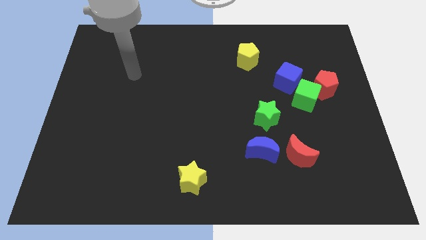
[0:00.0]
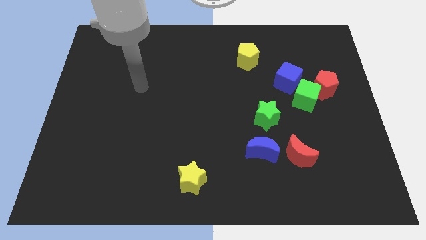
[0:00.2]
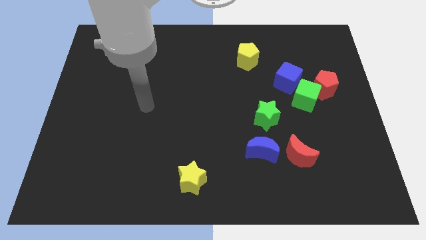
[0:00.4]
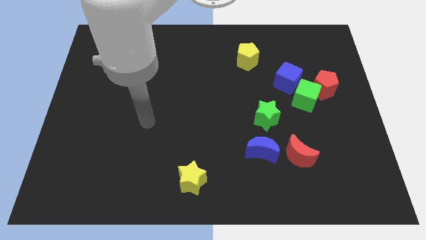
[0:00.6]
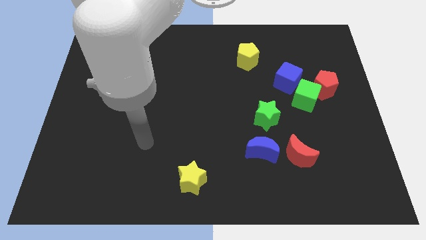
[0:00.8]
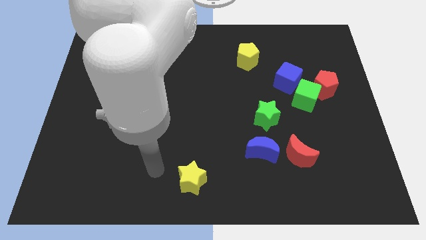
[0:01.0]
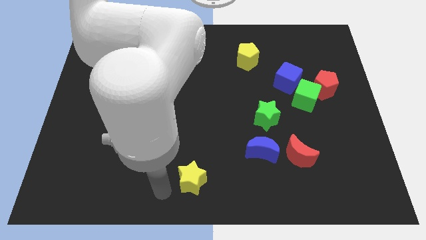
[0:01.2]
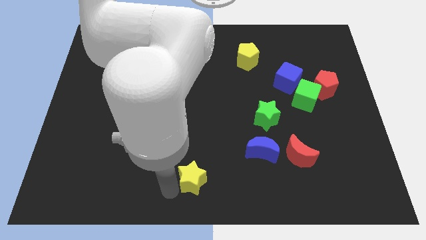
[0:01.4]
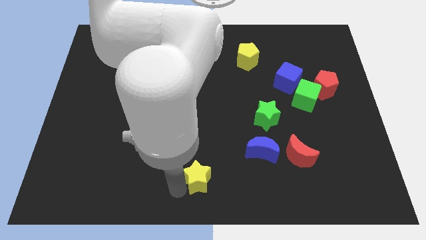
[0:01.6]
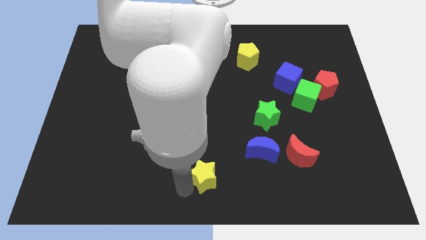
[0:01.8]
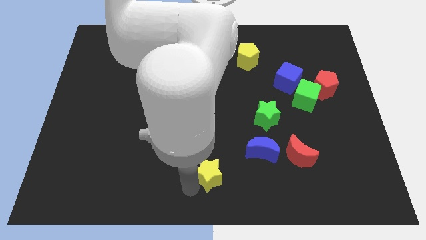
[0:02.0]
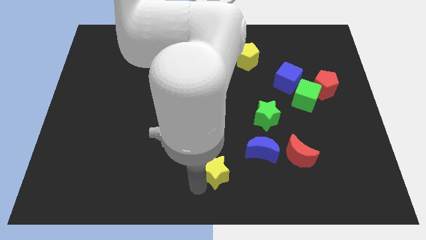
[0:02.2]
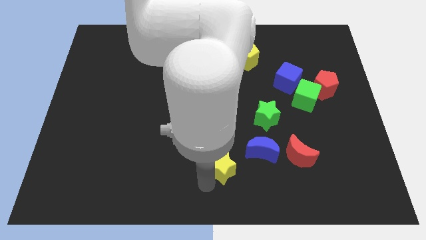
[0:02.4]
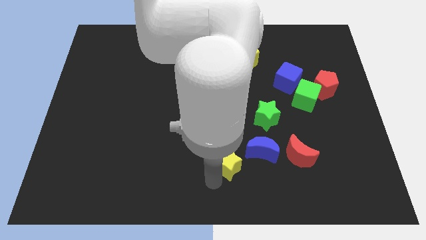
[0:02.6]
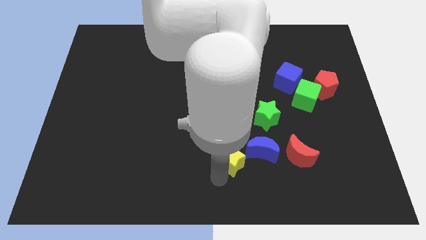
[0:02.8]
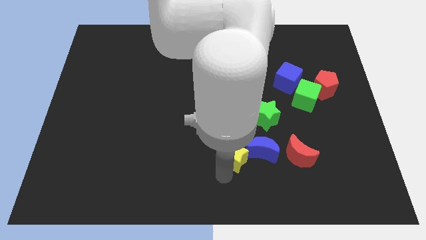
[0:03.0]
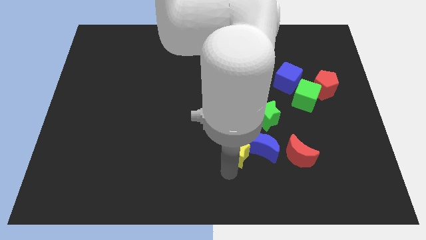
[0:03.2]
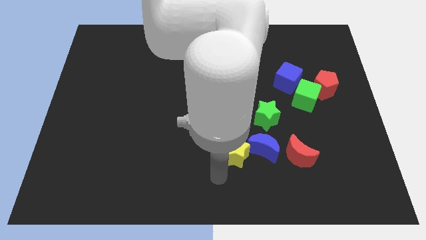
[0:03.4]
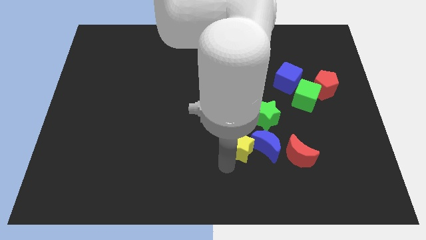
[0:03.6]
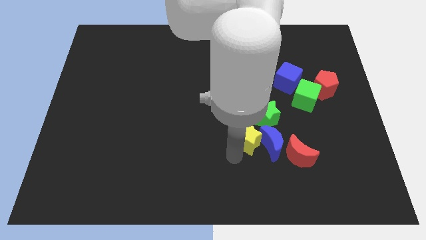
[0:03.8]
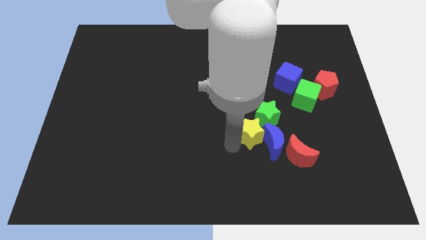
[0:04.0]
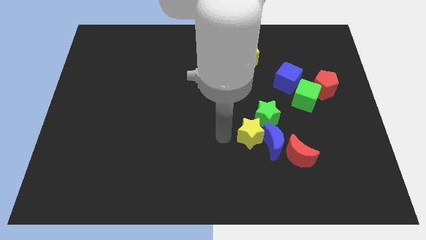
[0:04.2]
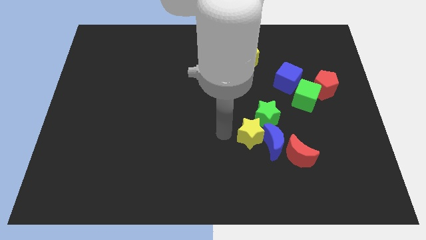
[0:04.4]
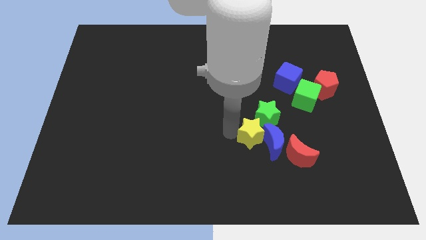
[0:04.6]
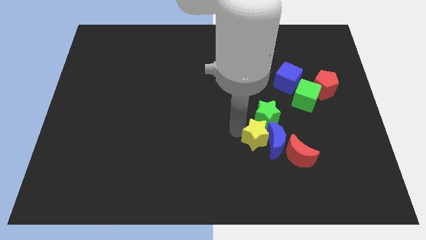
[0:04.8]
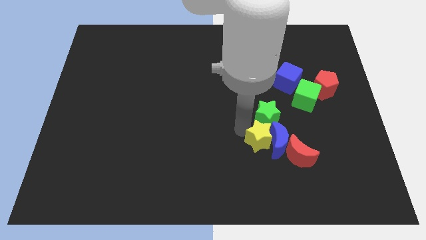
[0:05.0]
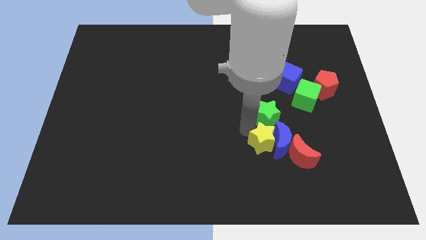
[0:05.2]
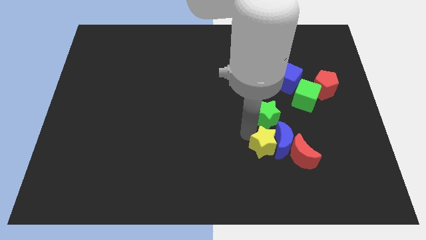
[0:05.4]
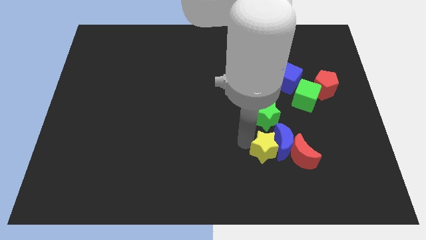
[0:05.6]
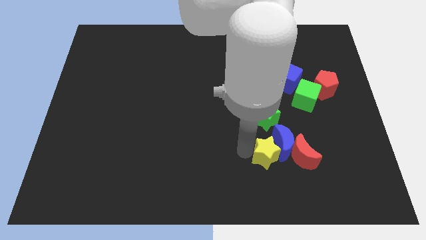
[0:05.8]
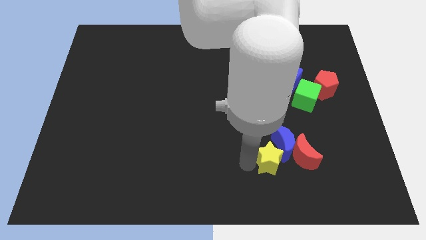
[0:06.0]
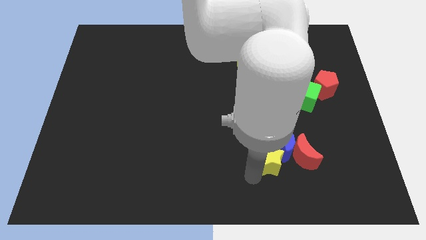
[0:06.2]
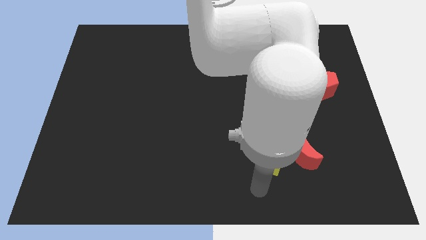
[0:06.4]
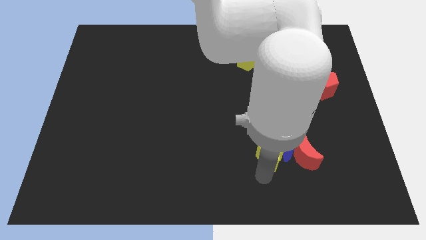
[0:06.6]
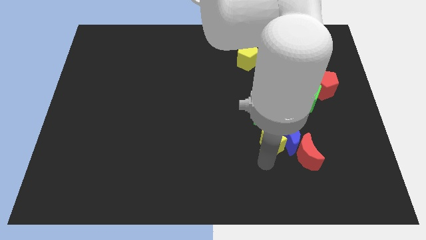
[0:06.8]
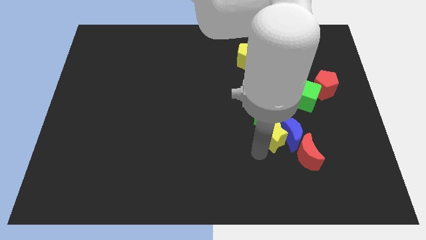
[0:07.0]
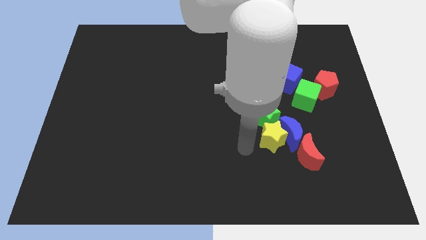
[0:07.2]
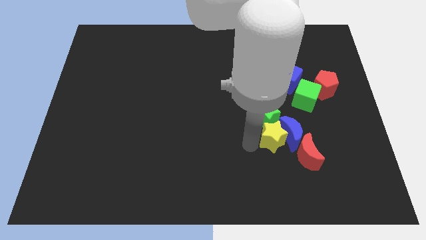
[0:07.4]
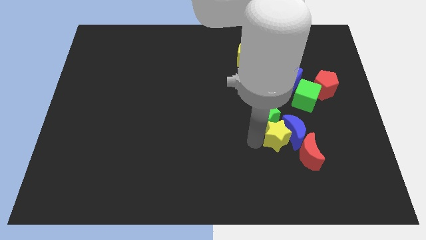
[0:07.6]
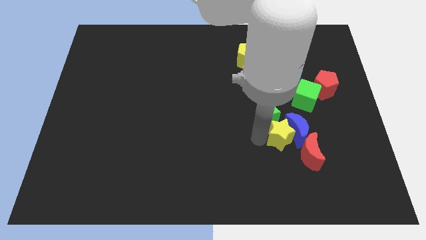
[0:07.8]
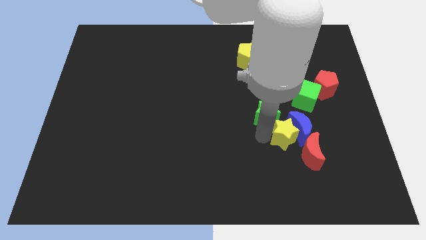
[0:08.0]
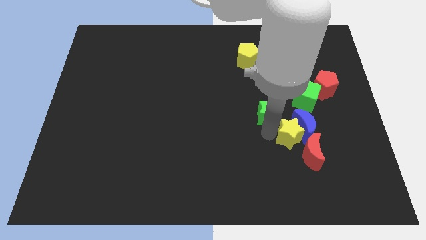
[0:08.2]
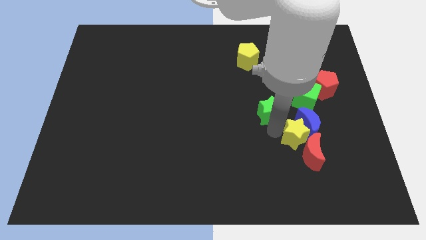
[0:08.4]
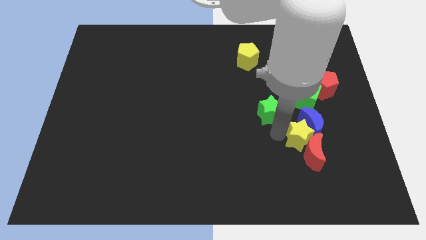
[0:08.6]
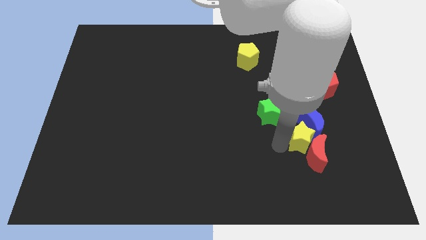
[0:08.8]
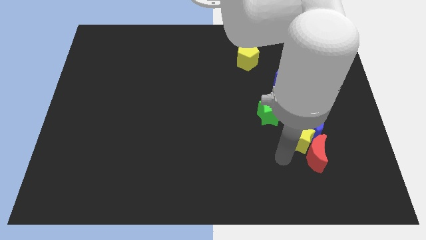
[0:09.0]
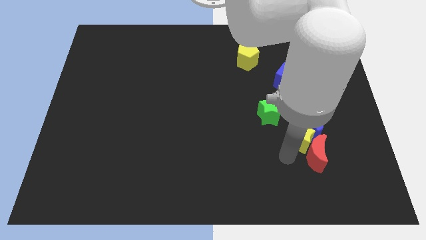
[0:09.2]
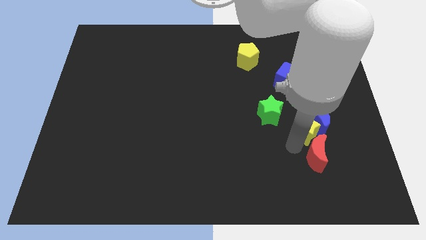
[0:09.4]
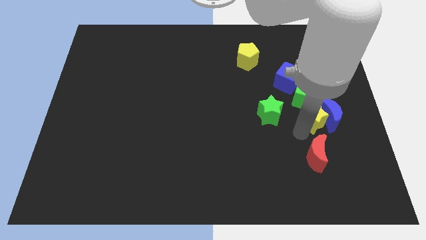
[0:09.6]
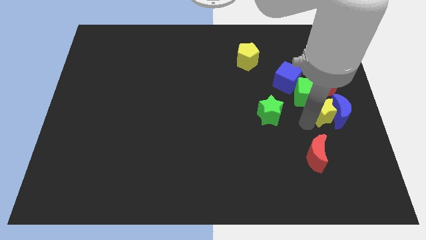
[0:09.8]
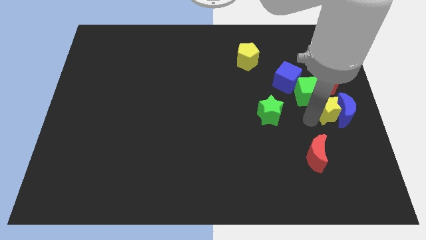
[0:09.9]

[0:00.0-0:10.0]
push the yellow star to the right side of the board

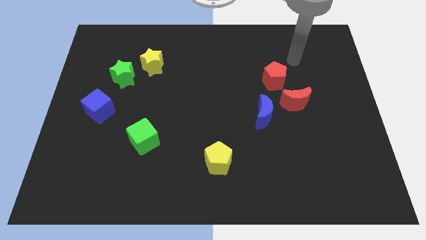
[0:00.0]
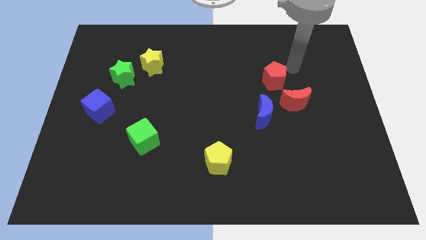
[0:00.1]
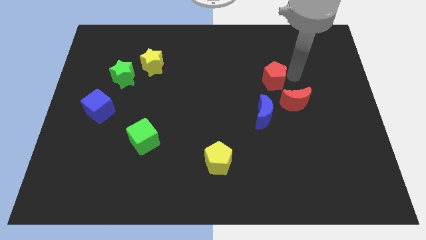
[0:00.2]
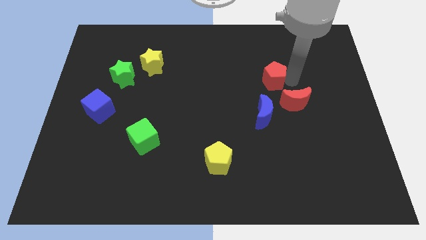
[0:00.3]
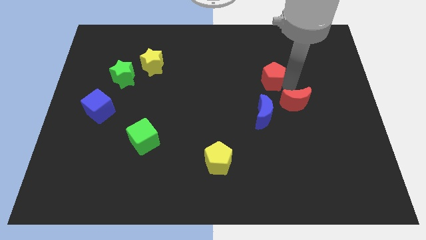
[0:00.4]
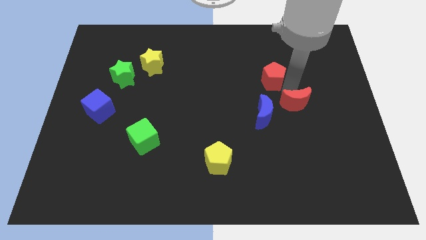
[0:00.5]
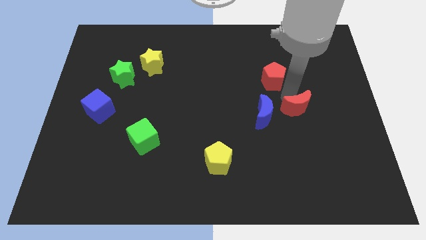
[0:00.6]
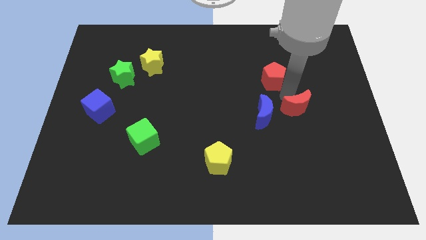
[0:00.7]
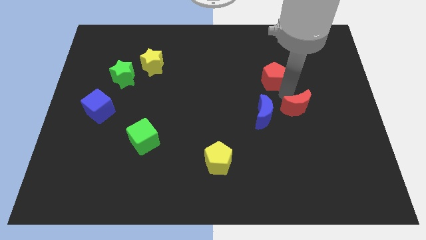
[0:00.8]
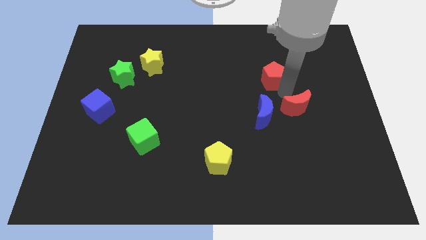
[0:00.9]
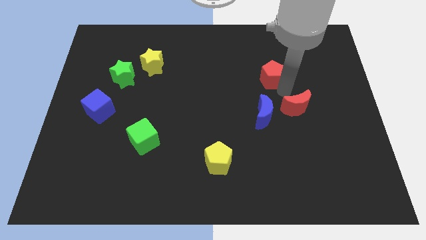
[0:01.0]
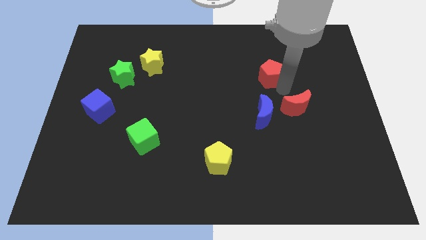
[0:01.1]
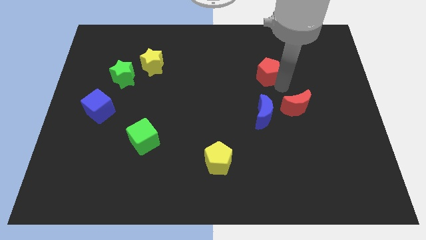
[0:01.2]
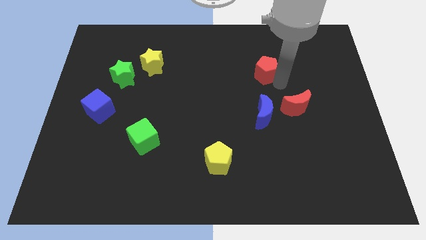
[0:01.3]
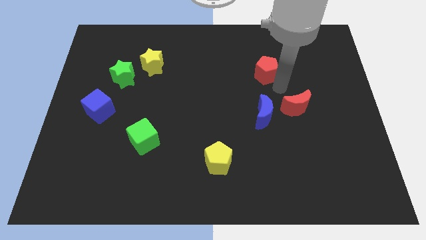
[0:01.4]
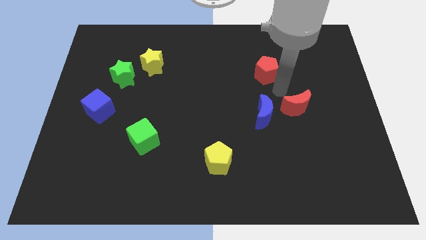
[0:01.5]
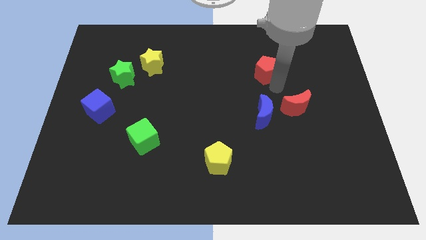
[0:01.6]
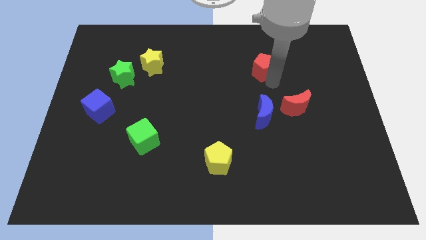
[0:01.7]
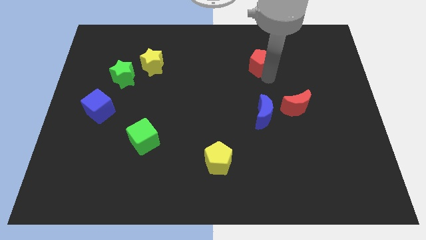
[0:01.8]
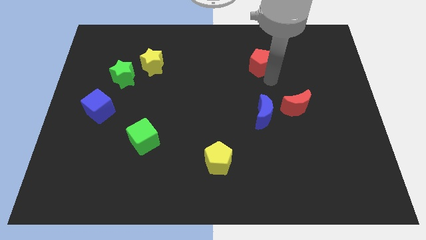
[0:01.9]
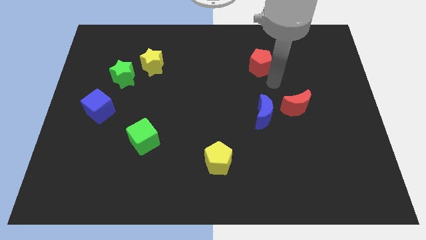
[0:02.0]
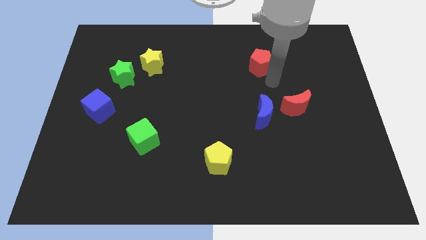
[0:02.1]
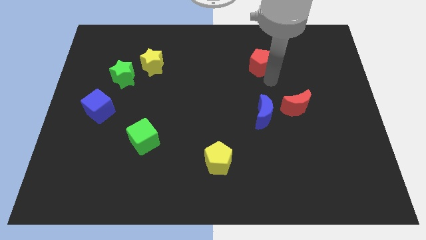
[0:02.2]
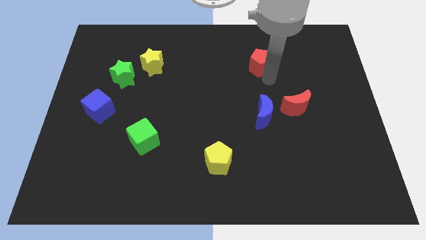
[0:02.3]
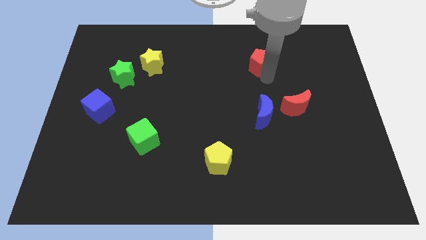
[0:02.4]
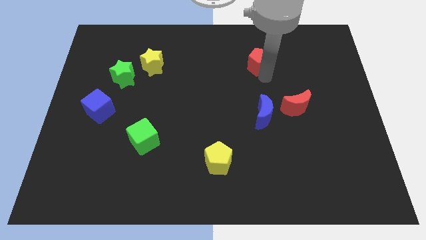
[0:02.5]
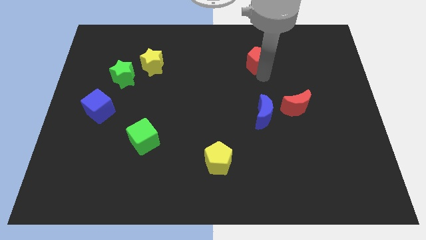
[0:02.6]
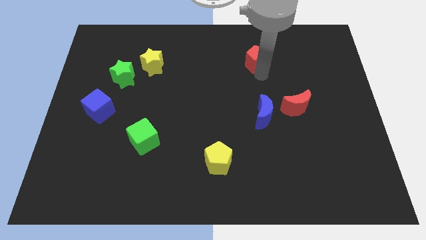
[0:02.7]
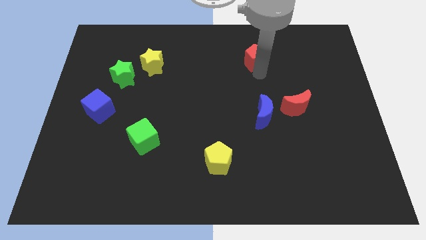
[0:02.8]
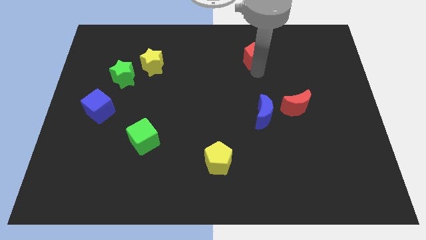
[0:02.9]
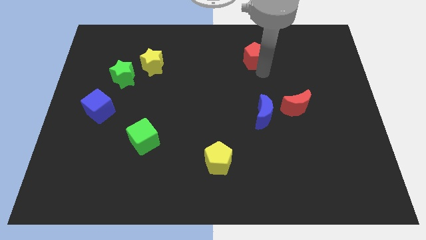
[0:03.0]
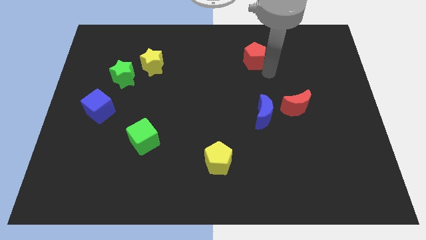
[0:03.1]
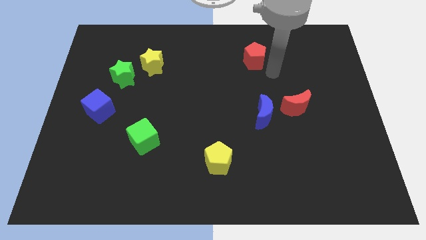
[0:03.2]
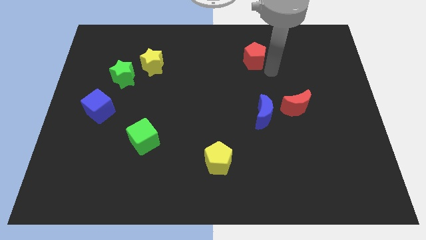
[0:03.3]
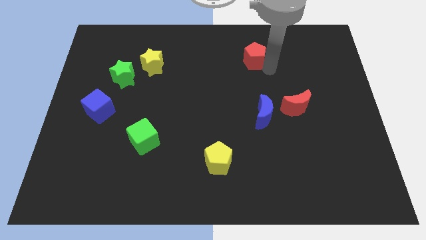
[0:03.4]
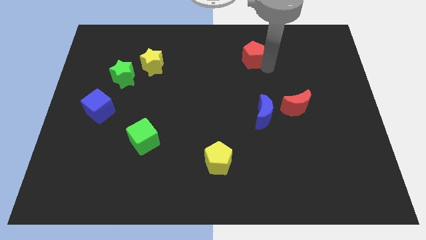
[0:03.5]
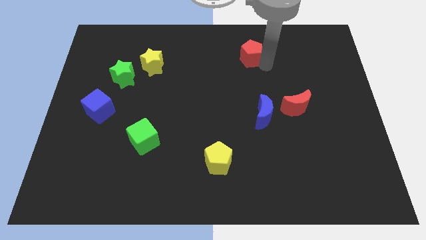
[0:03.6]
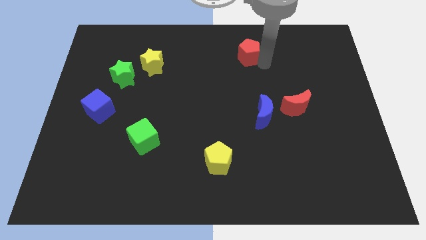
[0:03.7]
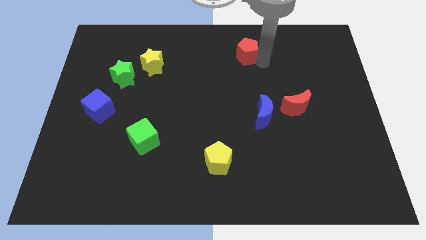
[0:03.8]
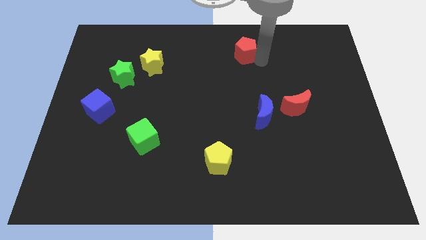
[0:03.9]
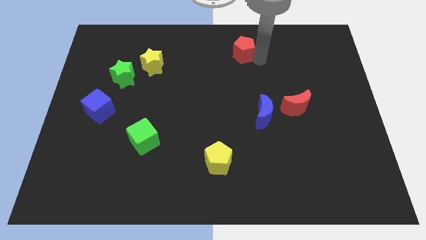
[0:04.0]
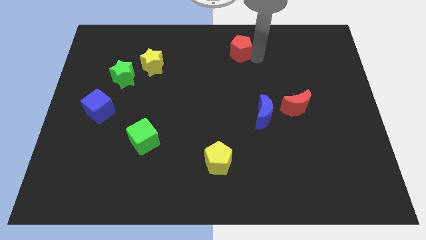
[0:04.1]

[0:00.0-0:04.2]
push the red pentagon to the top side
